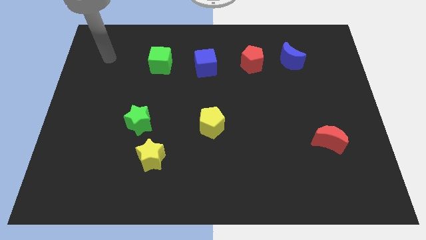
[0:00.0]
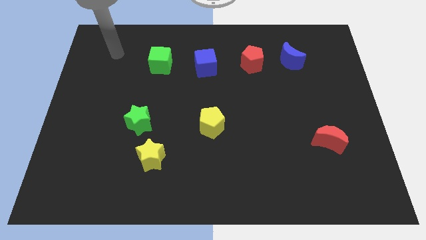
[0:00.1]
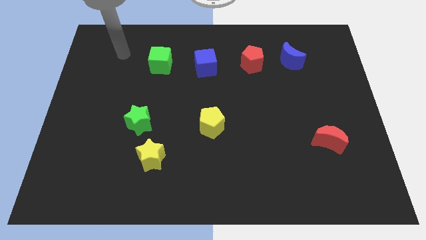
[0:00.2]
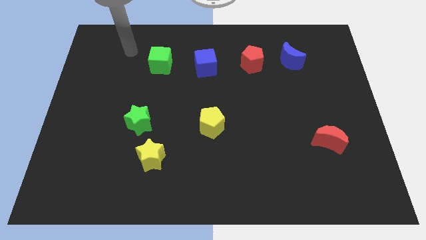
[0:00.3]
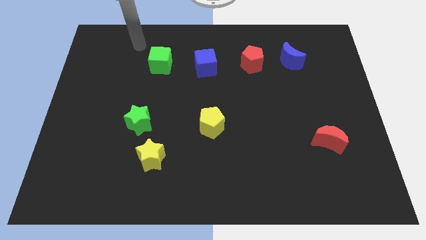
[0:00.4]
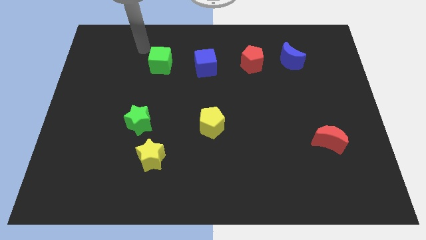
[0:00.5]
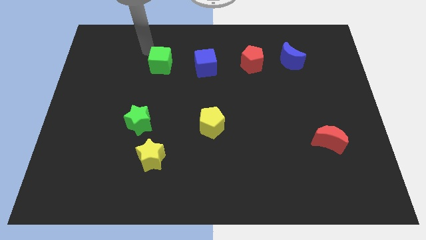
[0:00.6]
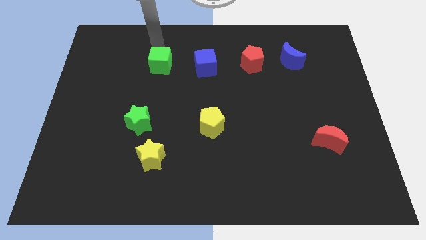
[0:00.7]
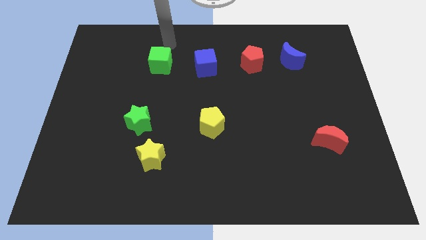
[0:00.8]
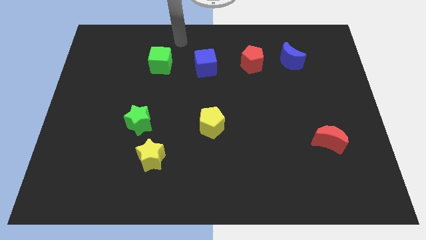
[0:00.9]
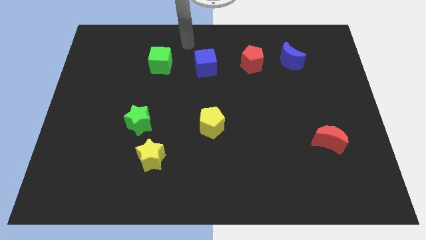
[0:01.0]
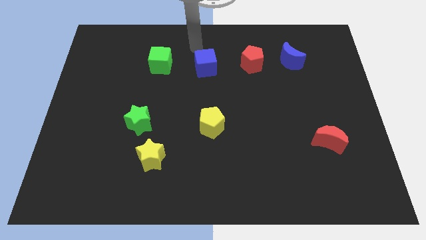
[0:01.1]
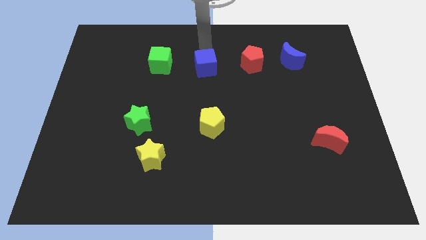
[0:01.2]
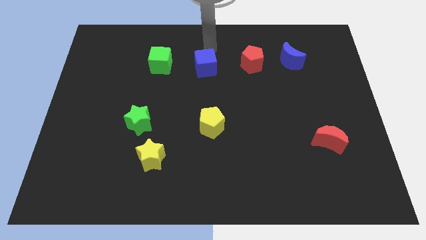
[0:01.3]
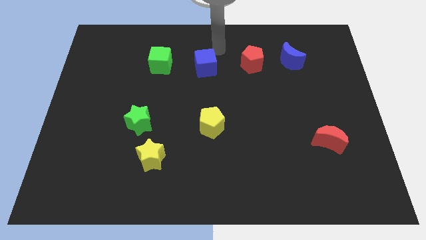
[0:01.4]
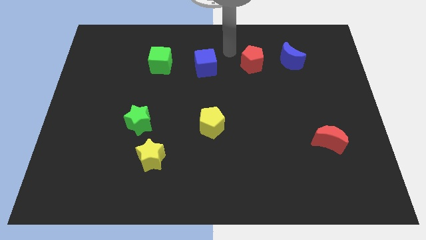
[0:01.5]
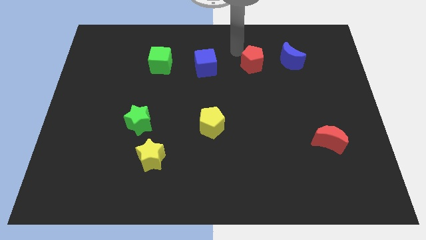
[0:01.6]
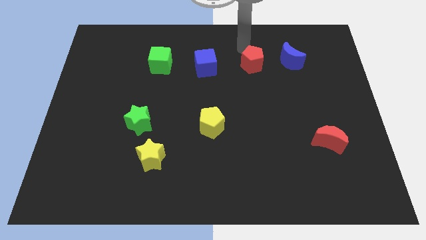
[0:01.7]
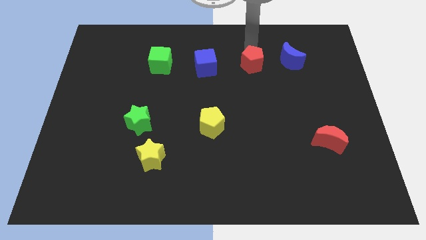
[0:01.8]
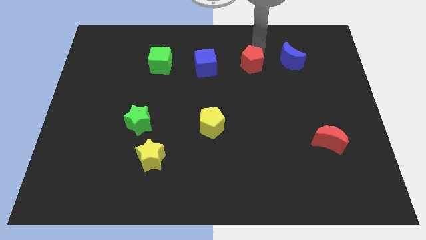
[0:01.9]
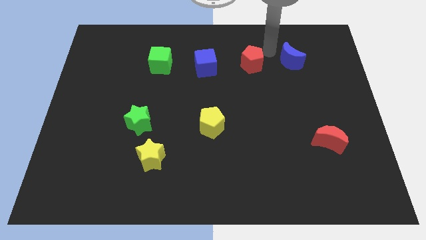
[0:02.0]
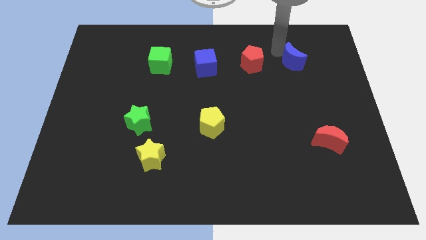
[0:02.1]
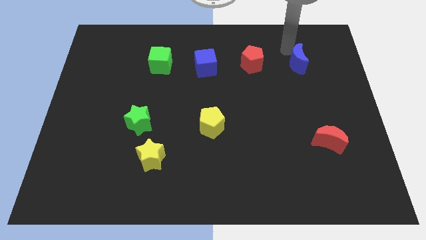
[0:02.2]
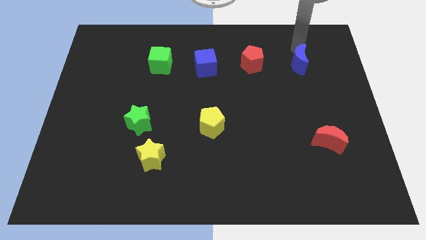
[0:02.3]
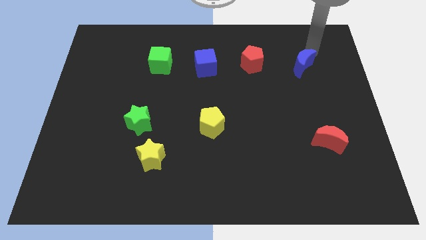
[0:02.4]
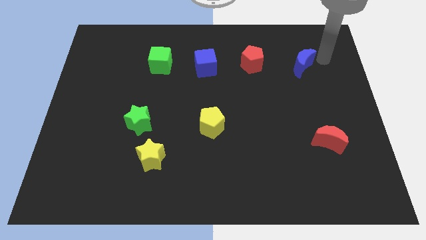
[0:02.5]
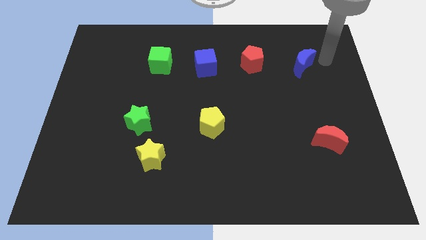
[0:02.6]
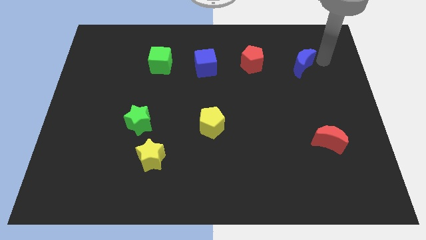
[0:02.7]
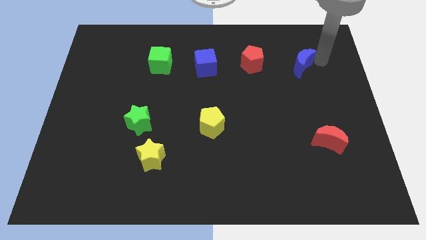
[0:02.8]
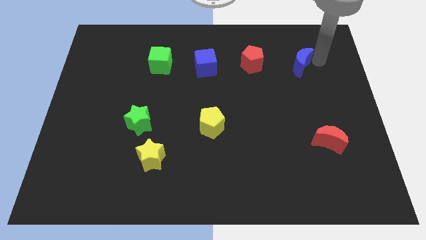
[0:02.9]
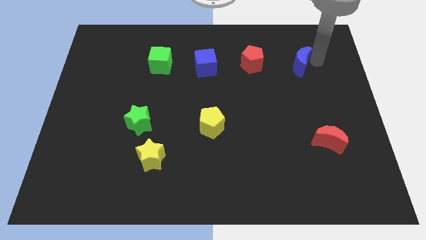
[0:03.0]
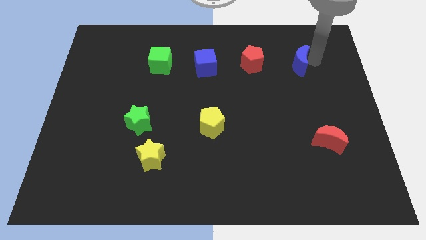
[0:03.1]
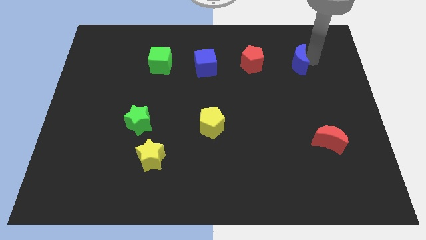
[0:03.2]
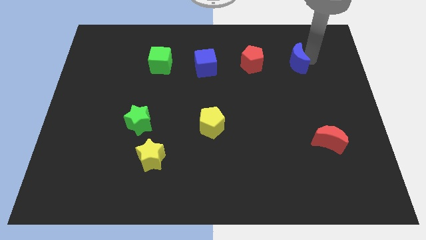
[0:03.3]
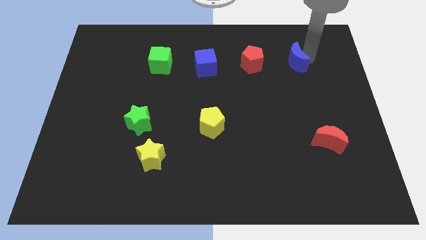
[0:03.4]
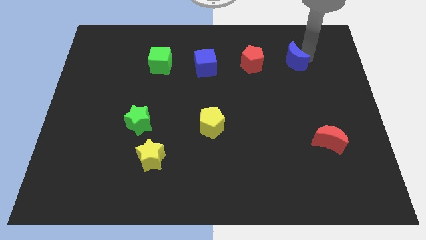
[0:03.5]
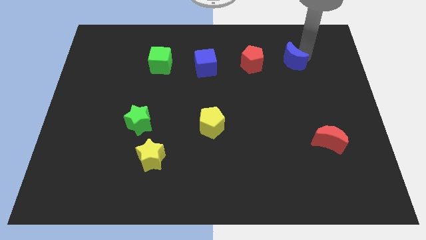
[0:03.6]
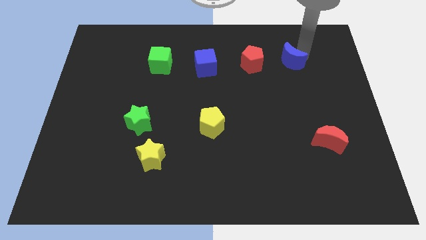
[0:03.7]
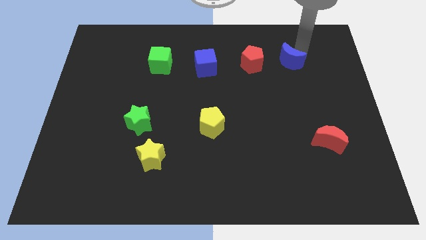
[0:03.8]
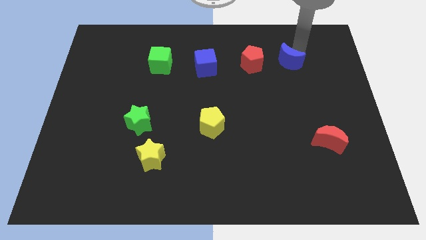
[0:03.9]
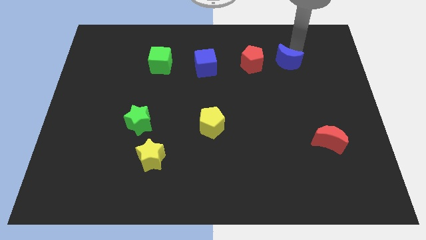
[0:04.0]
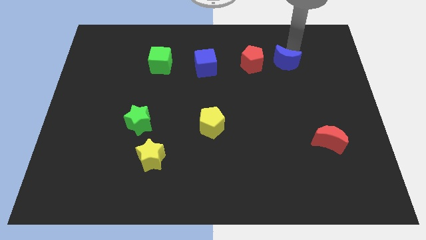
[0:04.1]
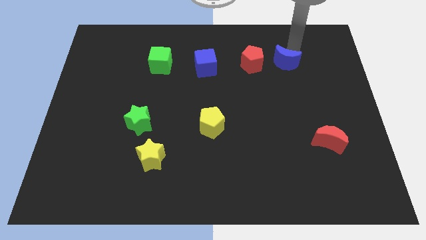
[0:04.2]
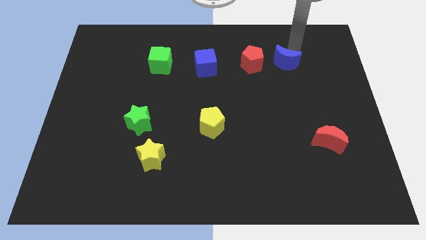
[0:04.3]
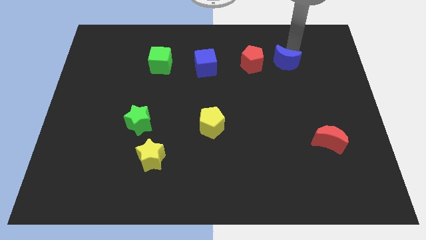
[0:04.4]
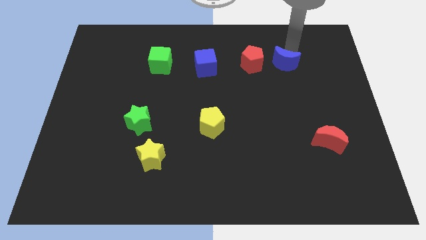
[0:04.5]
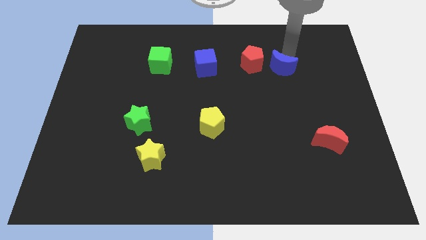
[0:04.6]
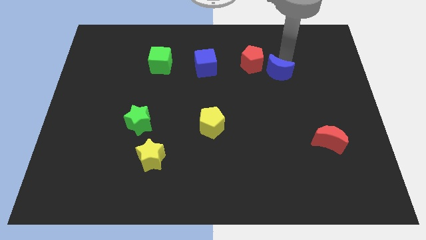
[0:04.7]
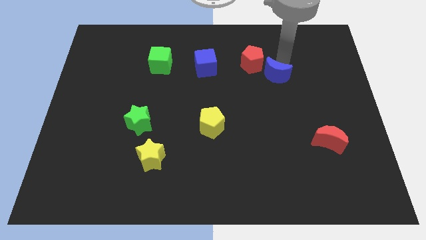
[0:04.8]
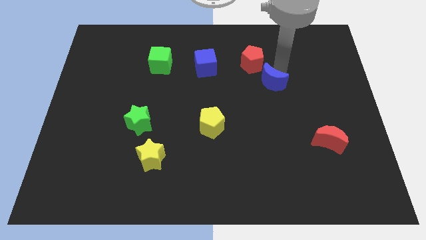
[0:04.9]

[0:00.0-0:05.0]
push the blue moon to the bottom side of the red pentagon

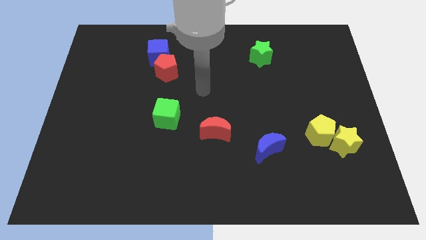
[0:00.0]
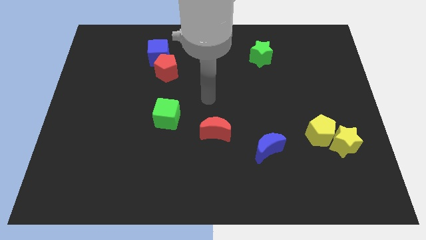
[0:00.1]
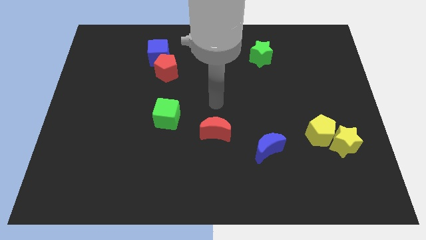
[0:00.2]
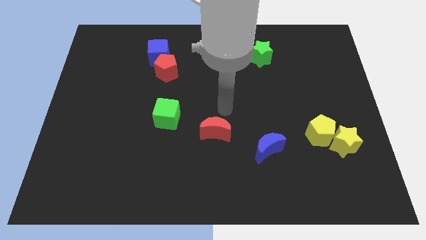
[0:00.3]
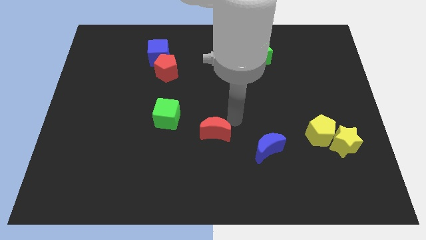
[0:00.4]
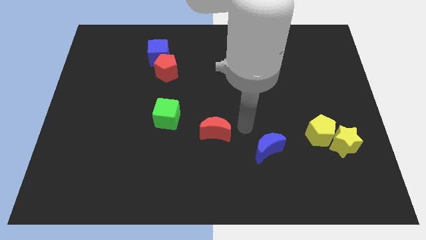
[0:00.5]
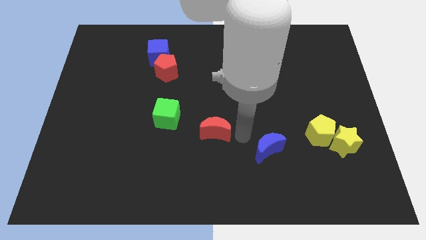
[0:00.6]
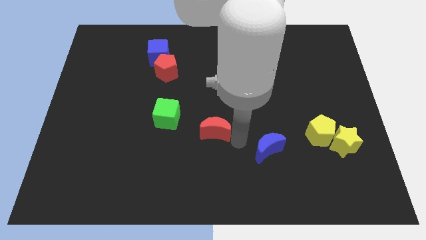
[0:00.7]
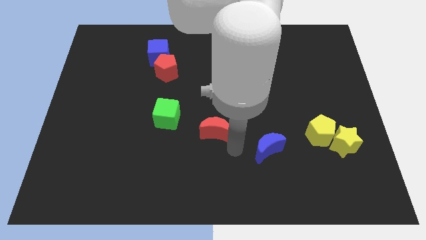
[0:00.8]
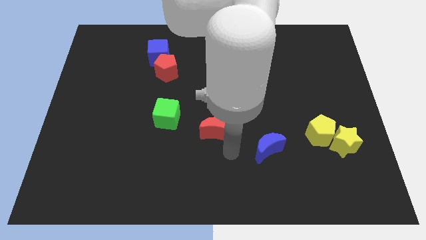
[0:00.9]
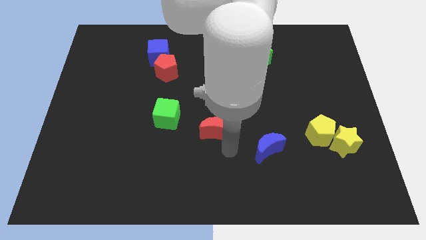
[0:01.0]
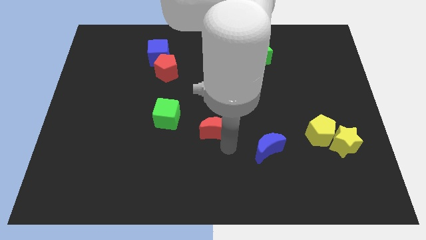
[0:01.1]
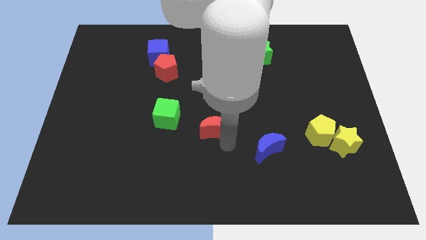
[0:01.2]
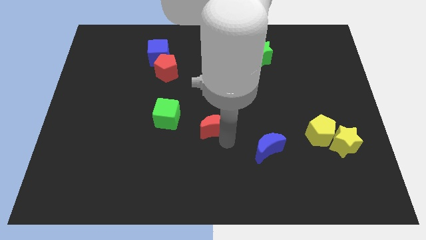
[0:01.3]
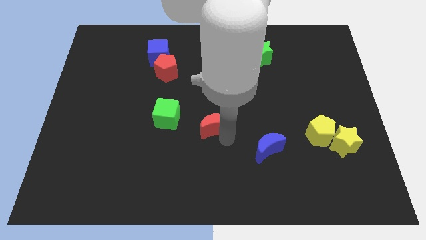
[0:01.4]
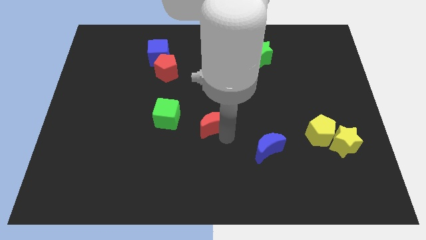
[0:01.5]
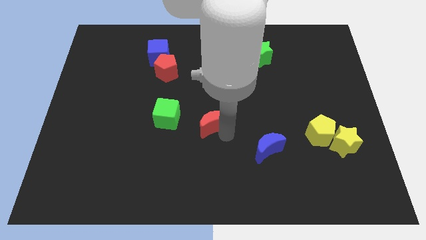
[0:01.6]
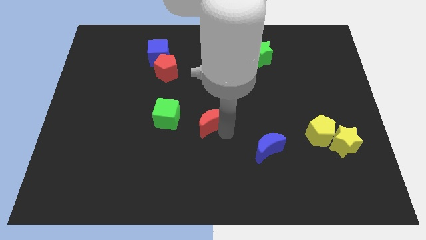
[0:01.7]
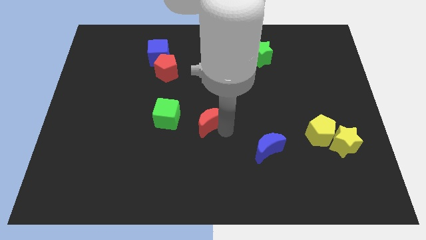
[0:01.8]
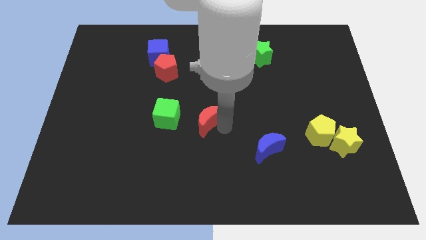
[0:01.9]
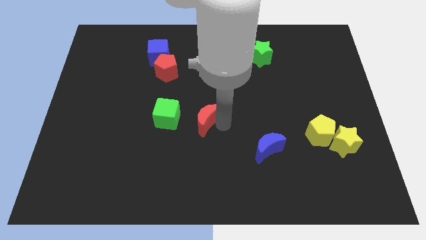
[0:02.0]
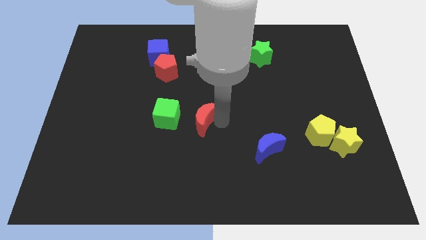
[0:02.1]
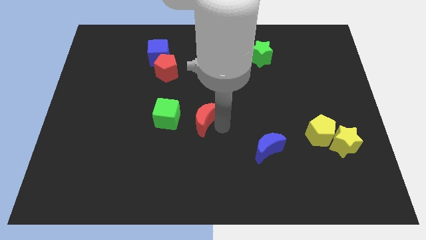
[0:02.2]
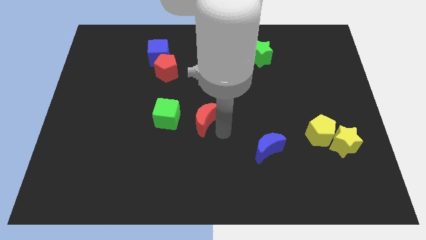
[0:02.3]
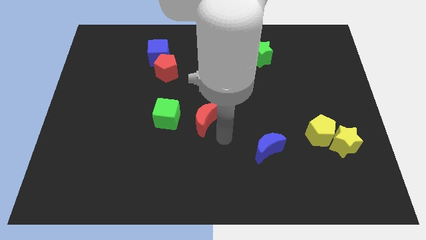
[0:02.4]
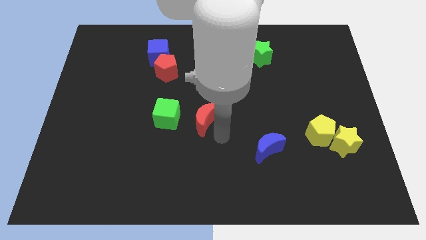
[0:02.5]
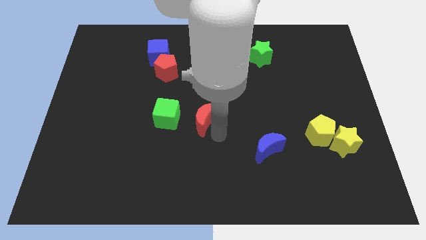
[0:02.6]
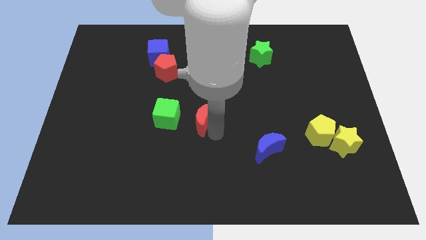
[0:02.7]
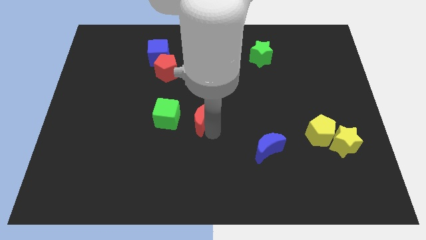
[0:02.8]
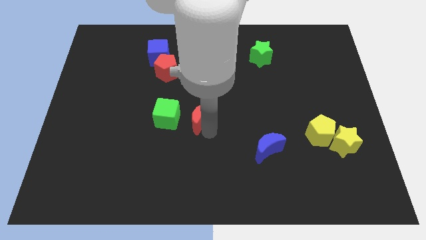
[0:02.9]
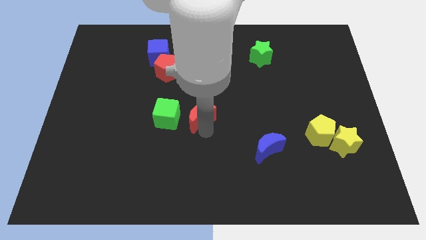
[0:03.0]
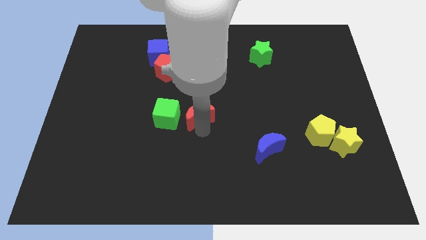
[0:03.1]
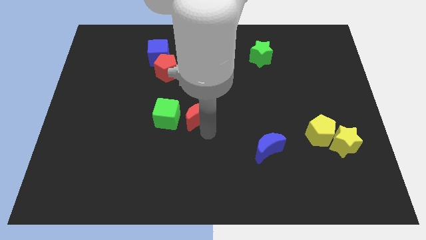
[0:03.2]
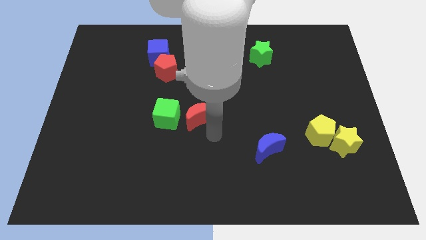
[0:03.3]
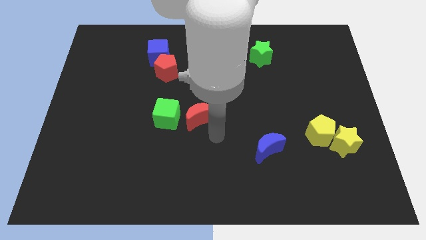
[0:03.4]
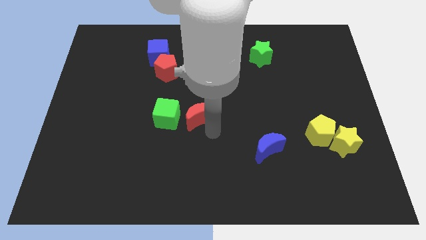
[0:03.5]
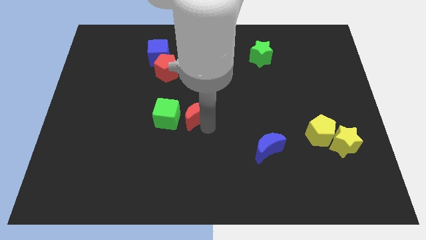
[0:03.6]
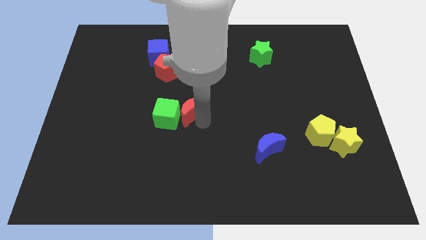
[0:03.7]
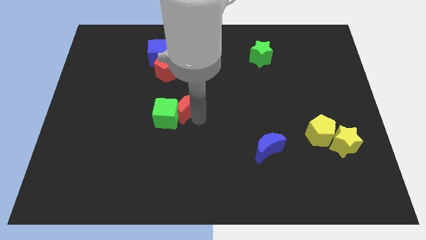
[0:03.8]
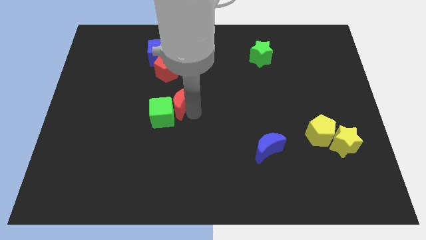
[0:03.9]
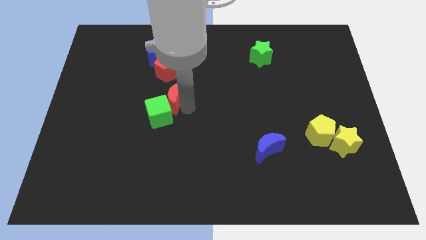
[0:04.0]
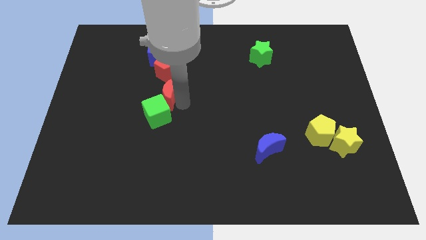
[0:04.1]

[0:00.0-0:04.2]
slide the red moon to the bottom side of the blue cube
